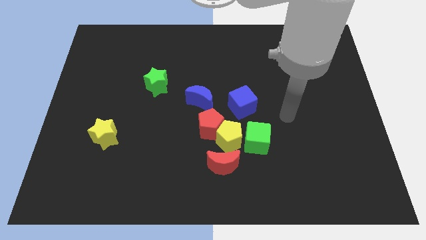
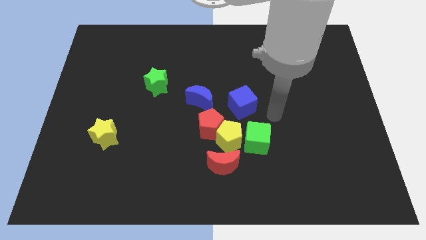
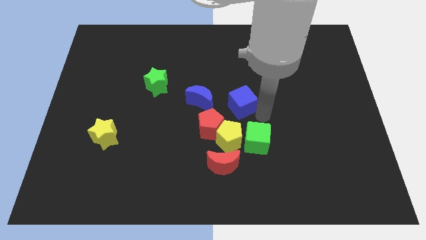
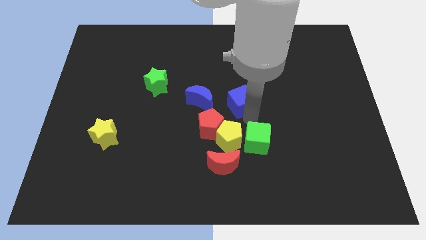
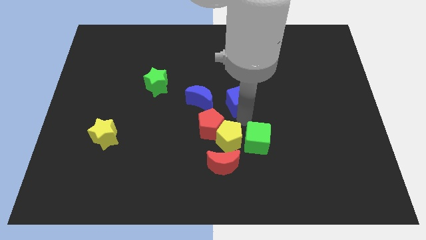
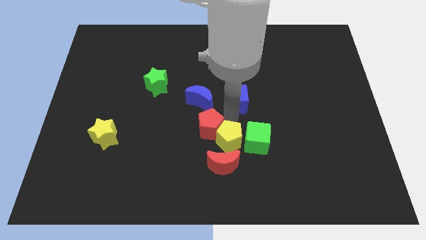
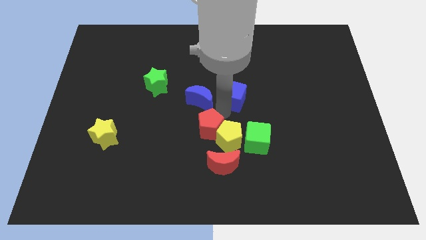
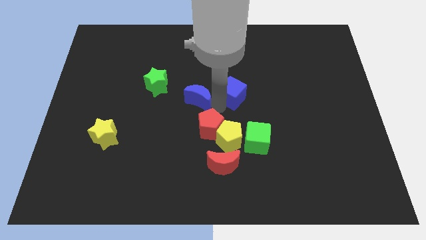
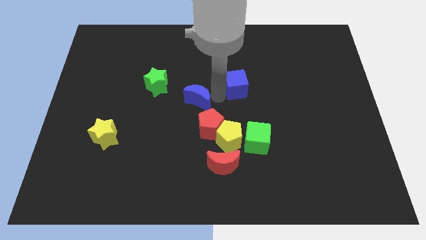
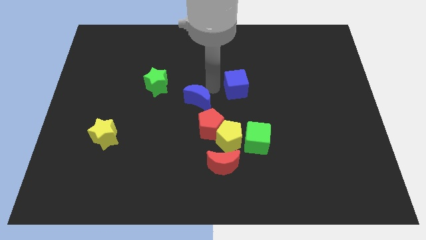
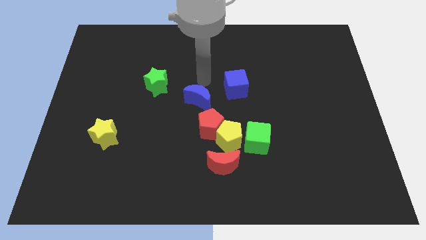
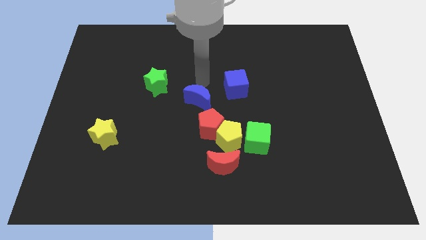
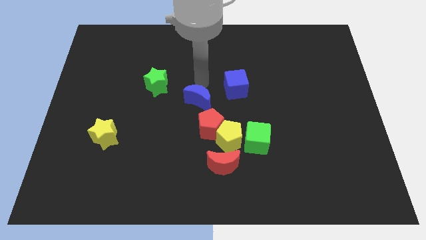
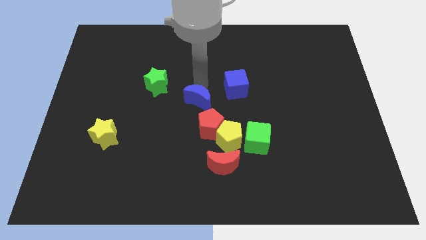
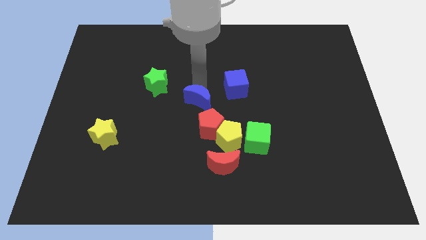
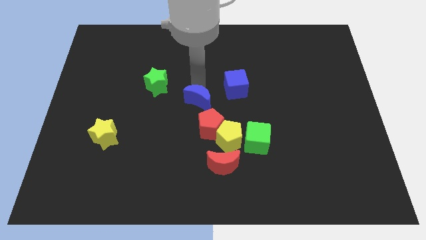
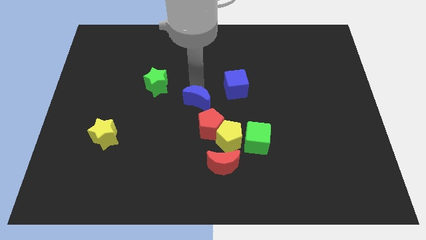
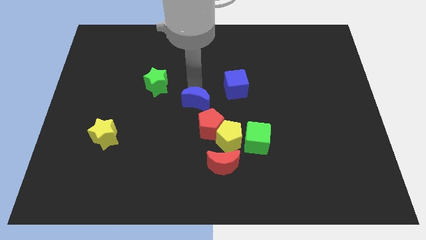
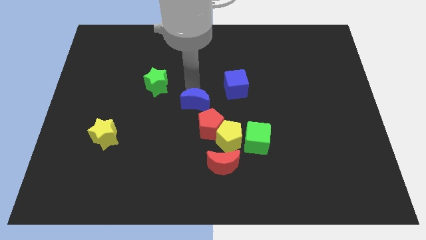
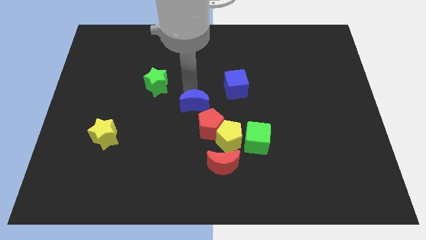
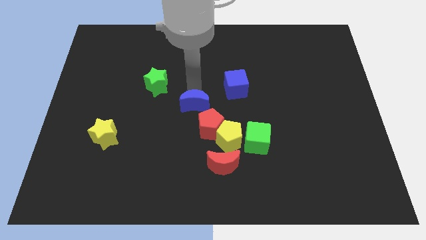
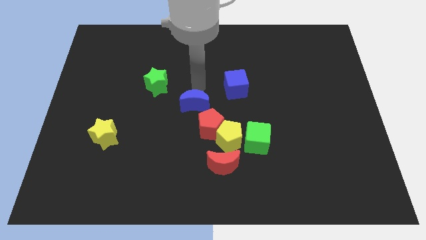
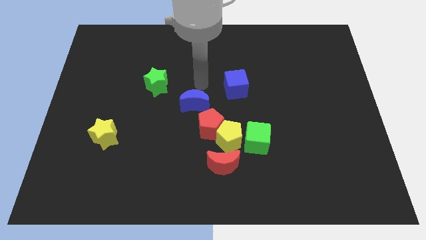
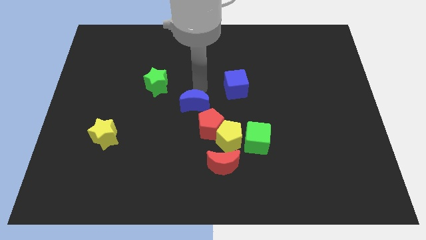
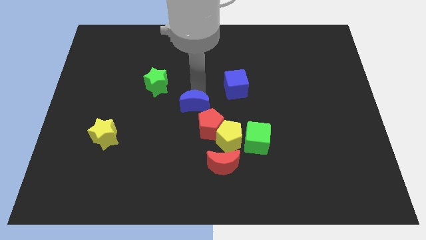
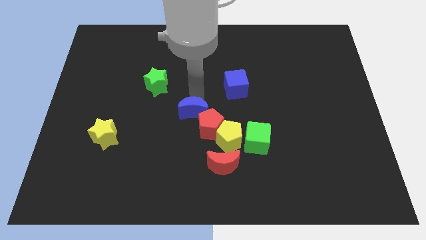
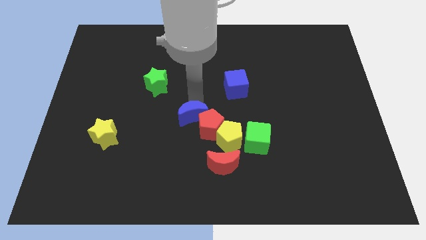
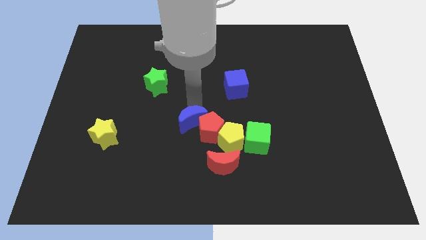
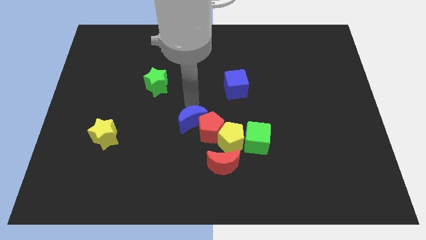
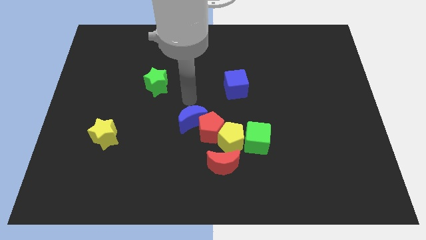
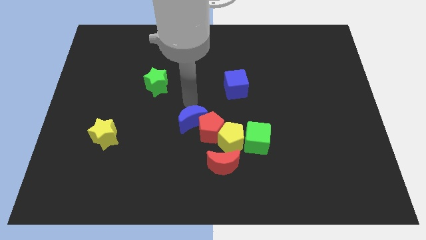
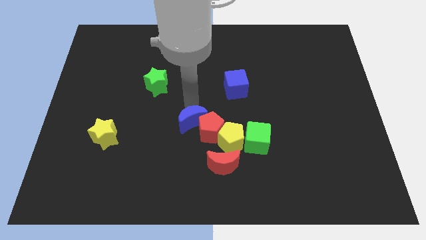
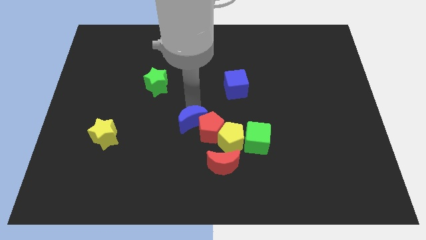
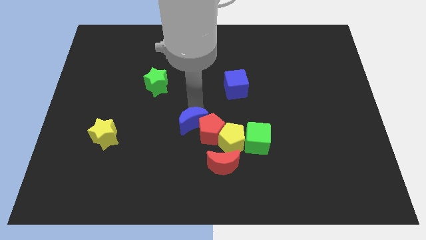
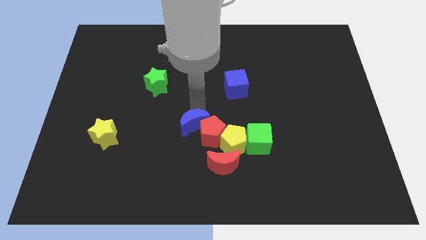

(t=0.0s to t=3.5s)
push the blue moon a little downwards

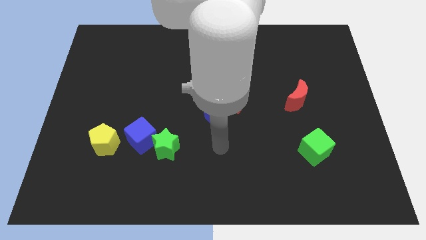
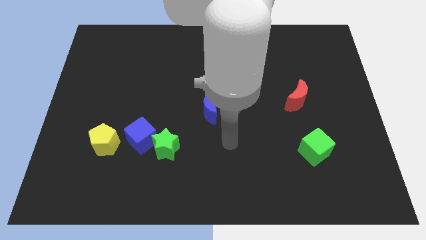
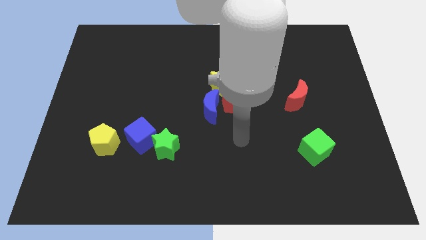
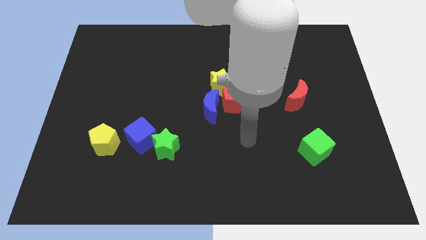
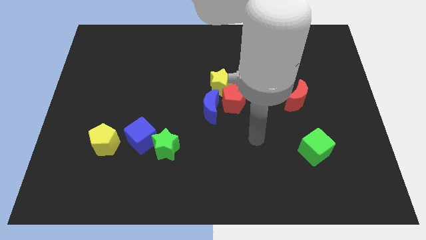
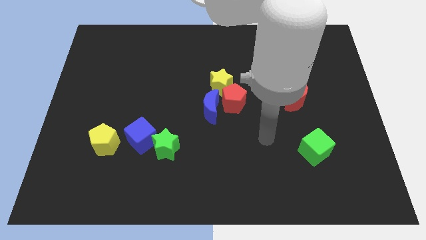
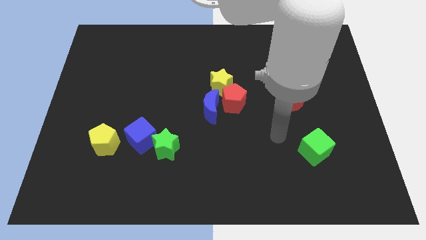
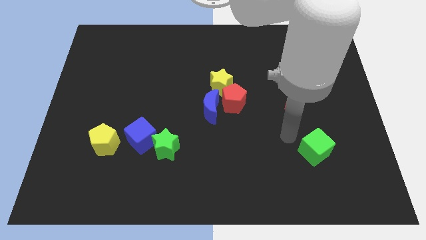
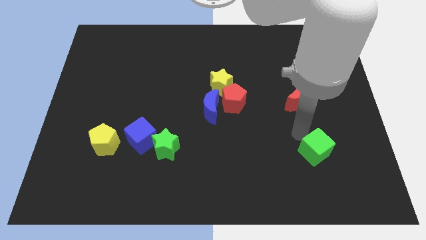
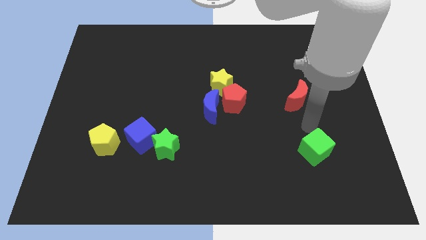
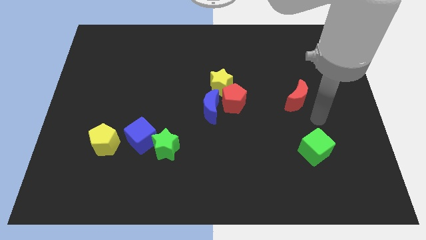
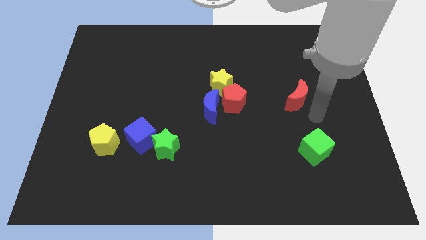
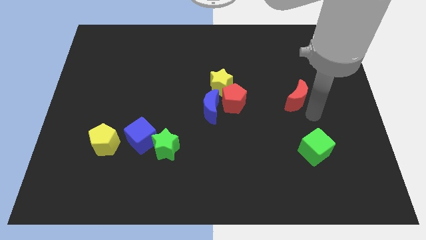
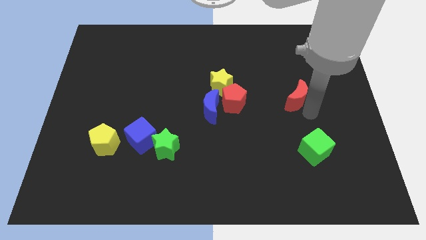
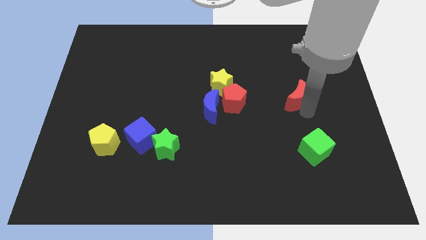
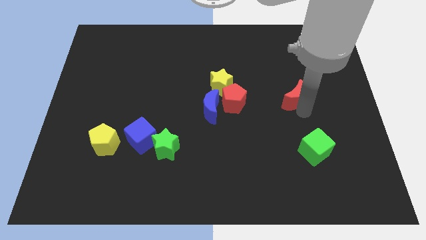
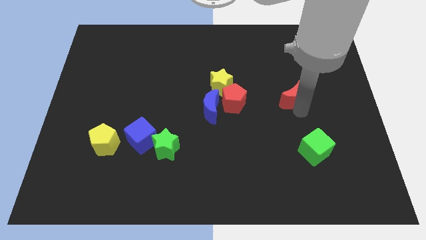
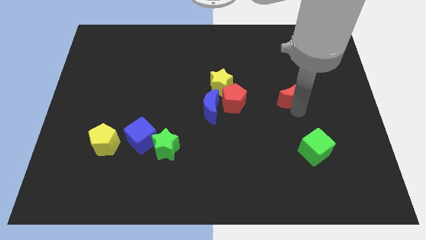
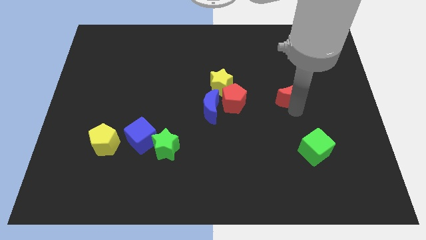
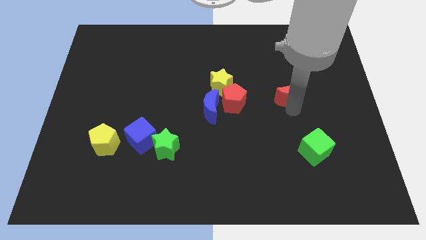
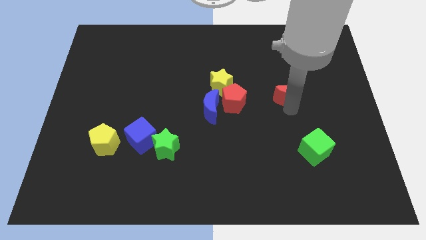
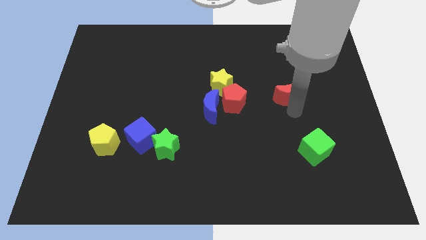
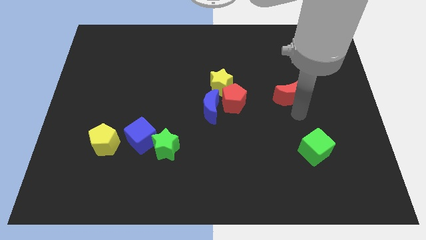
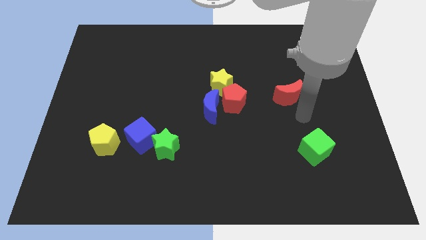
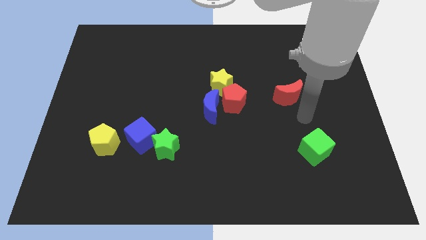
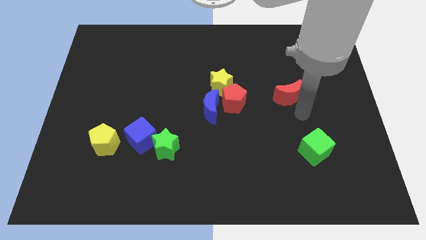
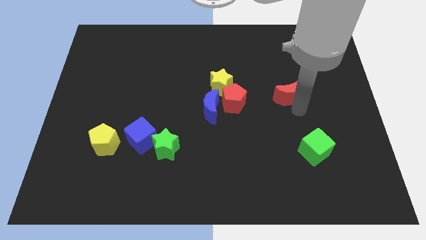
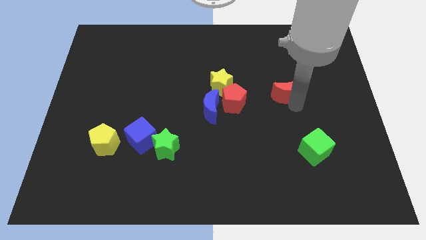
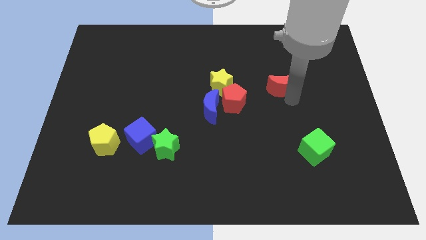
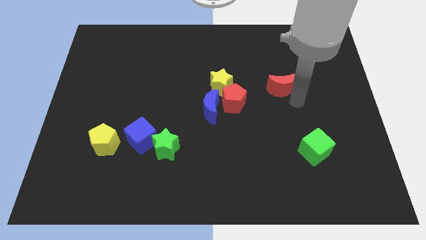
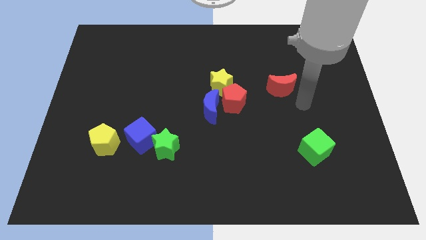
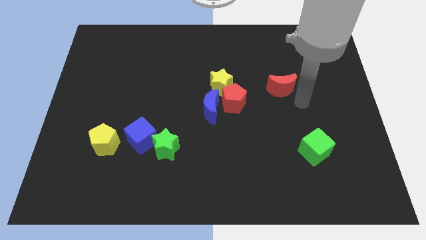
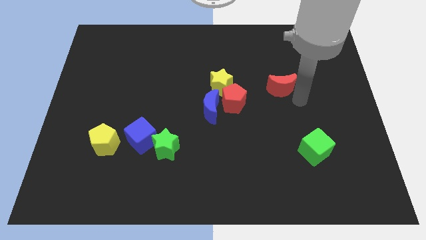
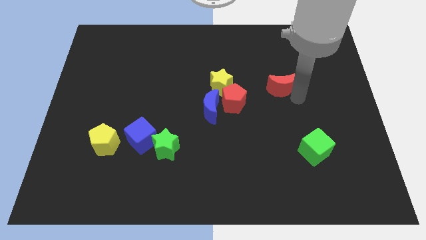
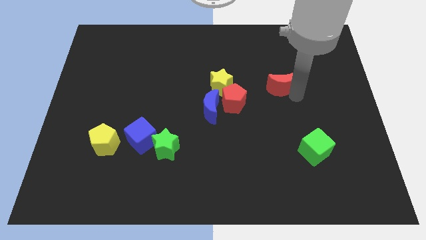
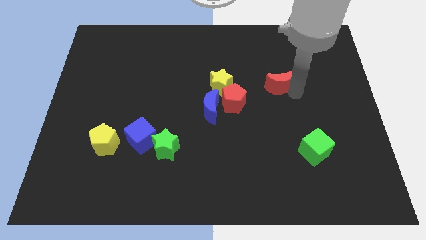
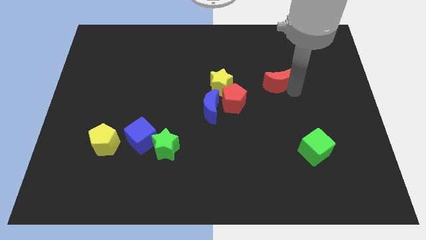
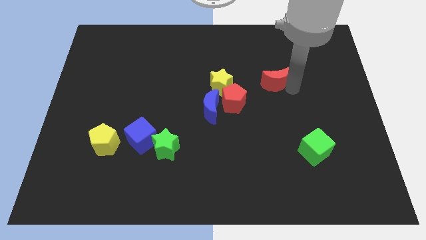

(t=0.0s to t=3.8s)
move the red moon upwards and then left slightly

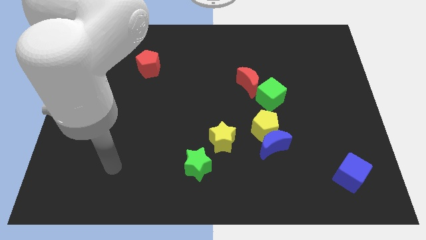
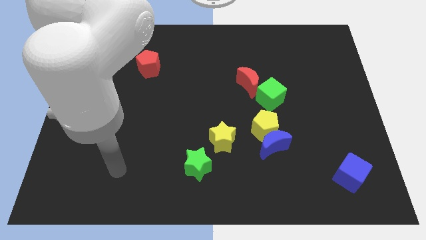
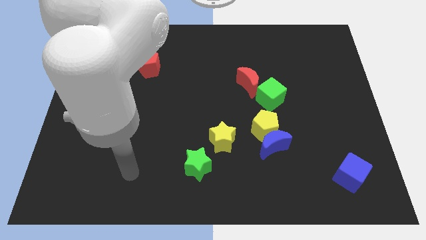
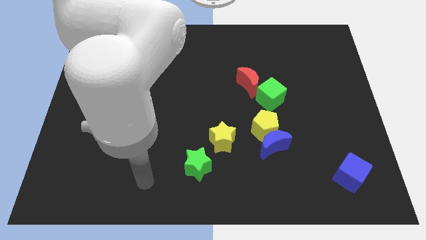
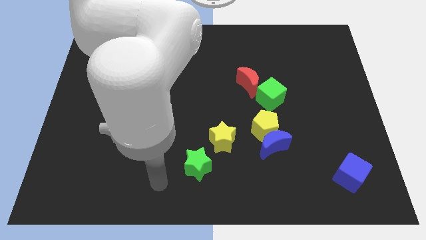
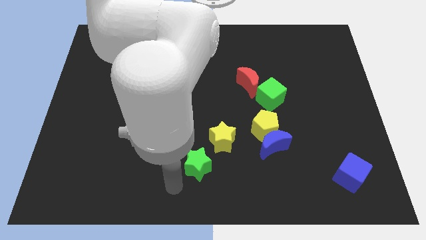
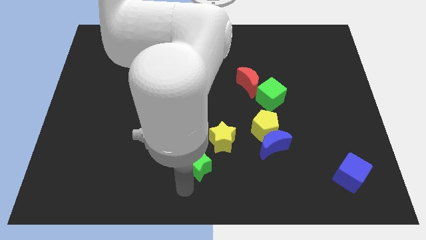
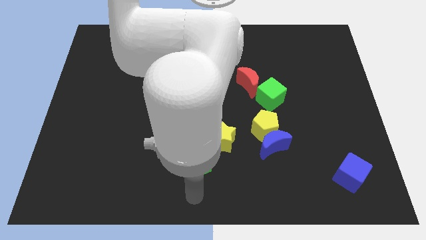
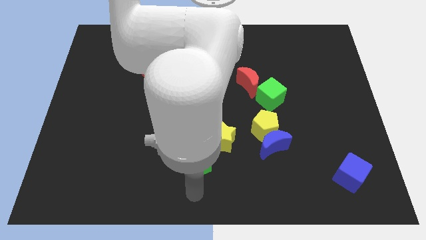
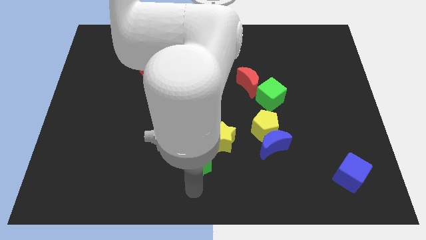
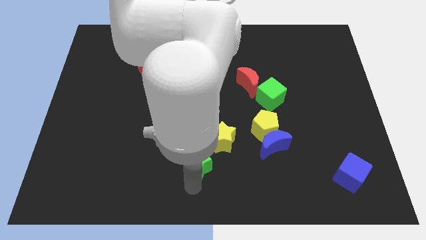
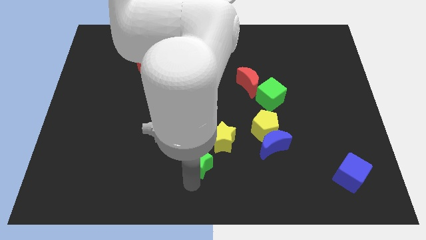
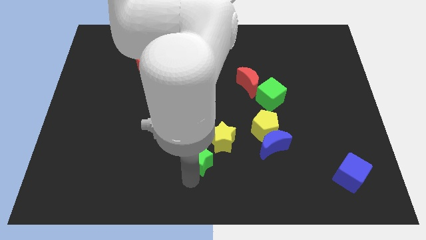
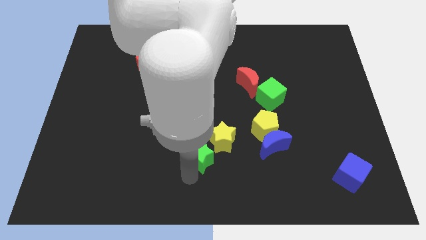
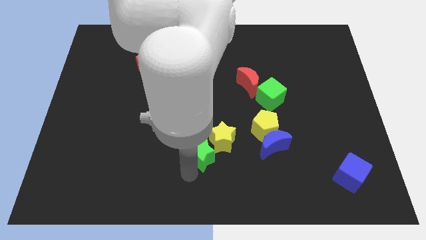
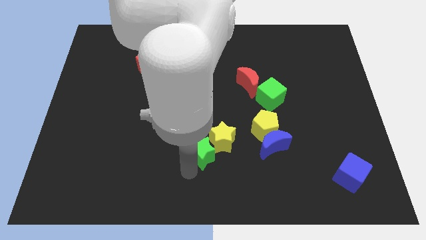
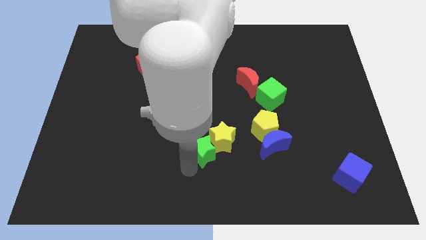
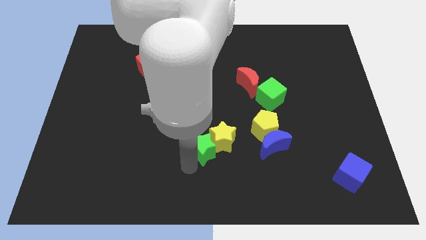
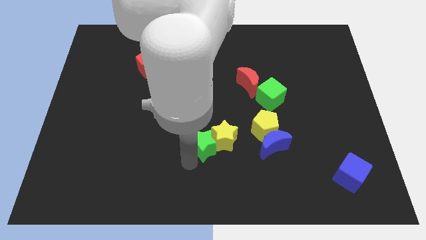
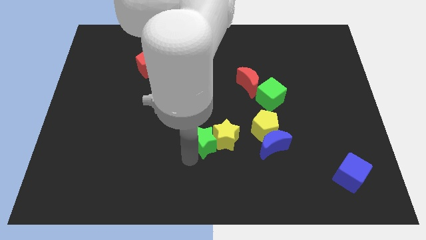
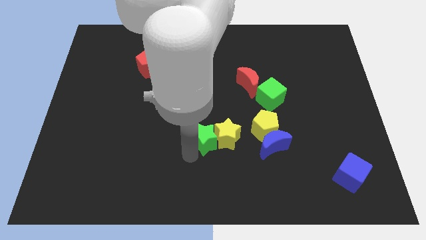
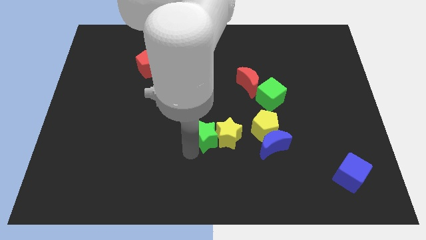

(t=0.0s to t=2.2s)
slide the green star slightly upwards
